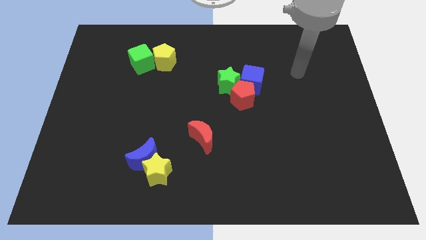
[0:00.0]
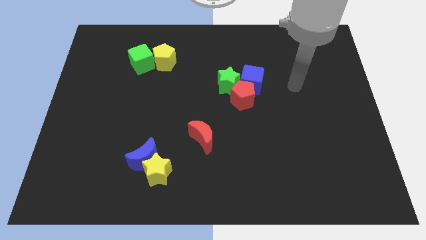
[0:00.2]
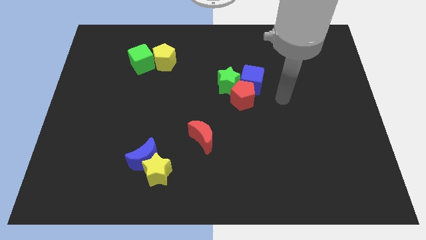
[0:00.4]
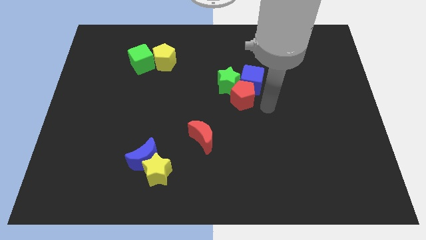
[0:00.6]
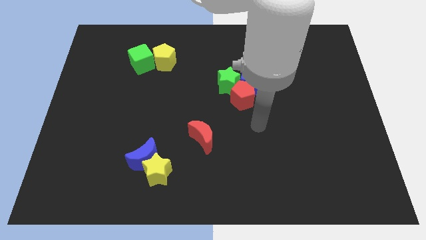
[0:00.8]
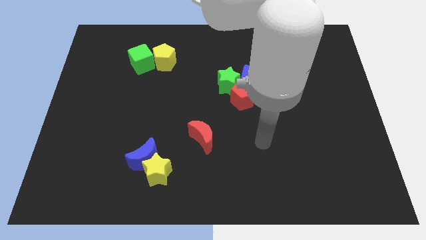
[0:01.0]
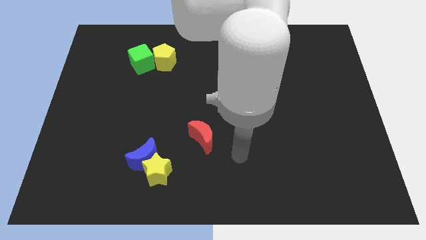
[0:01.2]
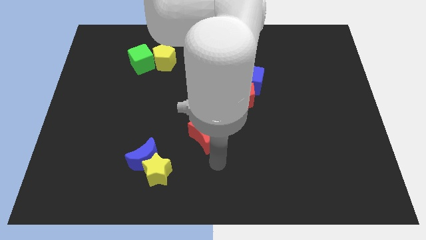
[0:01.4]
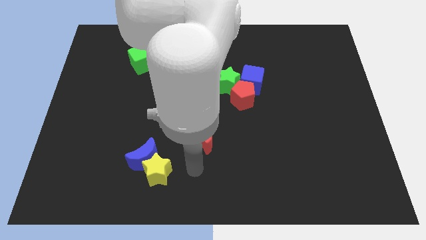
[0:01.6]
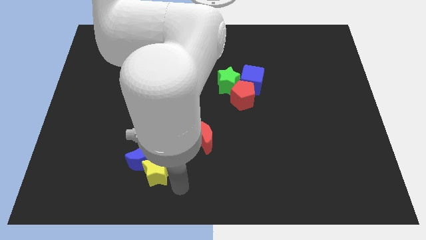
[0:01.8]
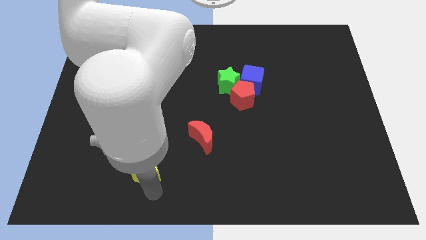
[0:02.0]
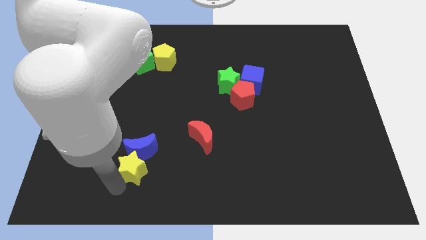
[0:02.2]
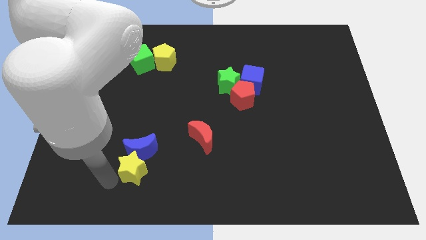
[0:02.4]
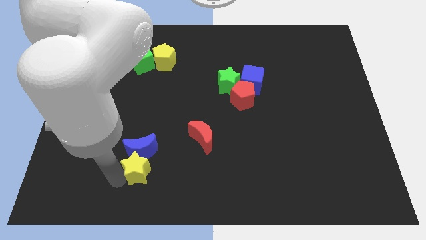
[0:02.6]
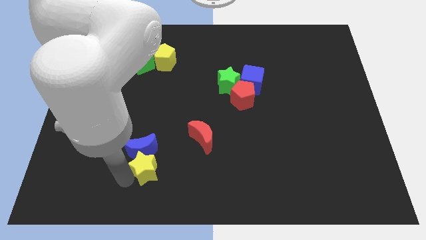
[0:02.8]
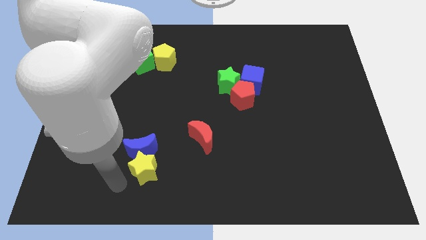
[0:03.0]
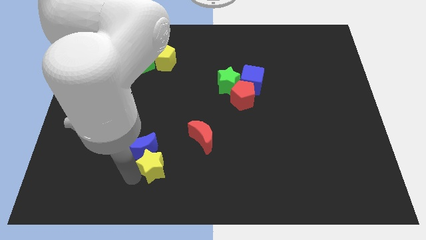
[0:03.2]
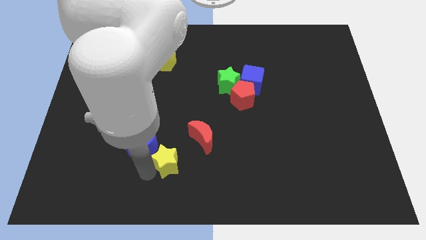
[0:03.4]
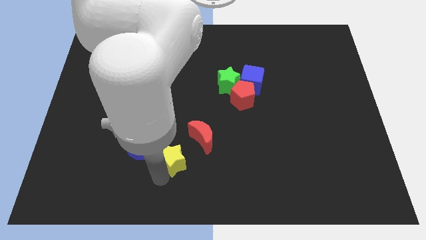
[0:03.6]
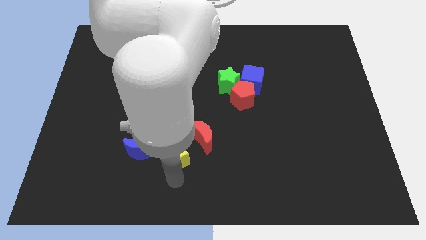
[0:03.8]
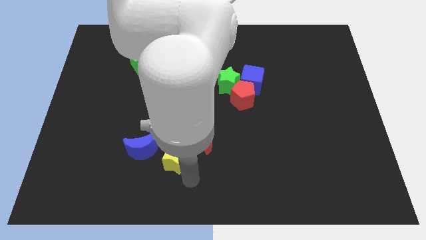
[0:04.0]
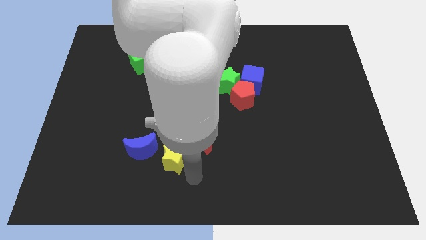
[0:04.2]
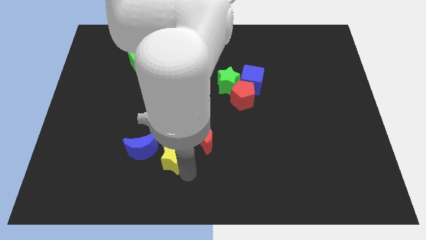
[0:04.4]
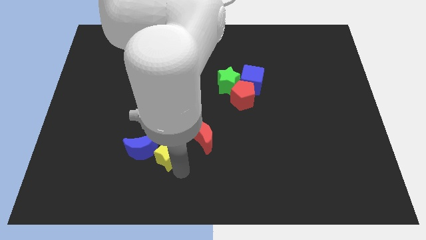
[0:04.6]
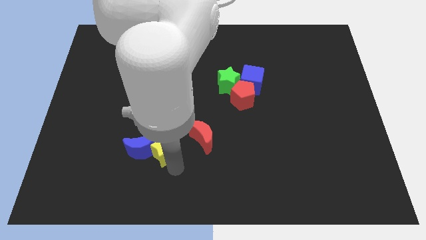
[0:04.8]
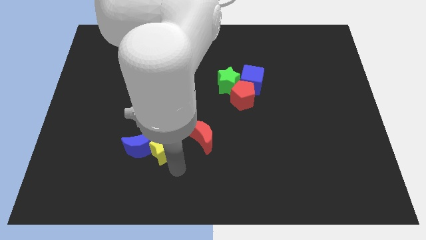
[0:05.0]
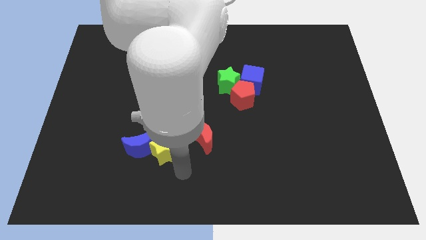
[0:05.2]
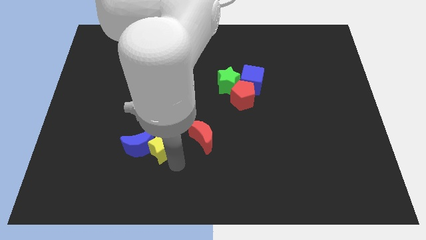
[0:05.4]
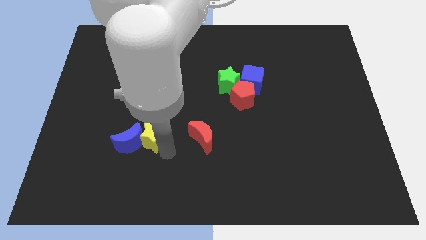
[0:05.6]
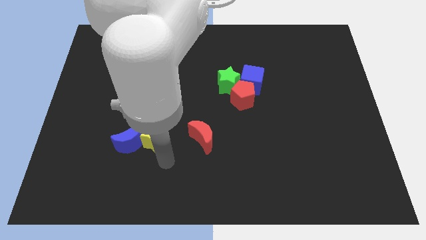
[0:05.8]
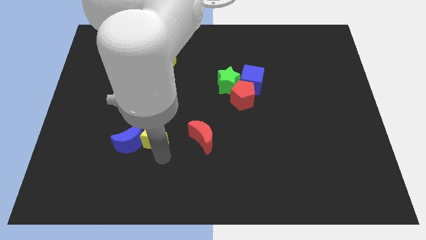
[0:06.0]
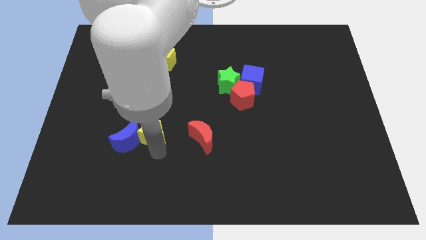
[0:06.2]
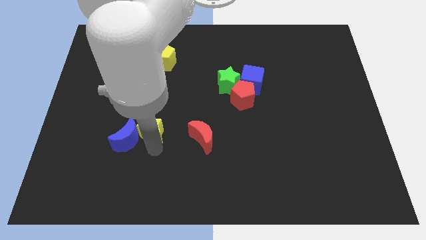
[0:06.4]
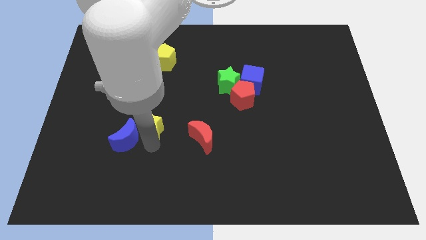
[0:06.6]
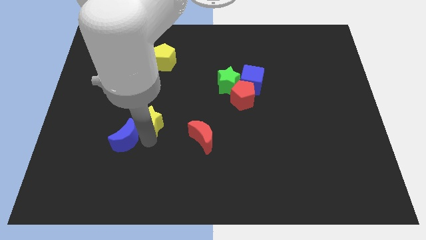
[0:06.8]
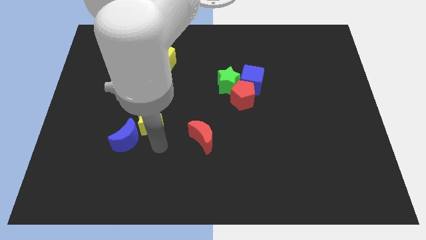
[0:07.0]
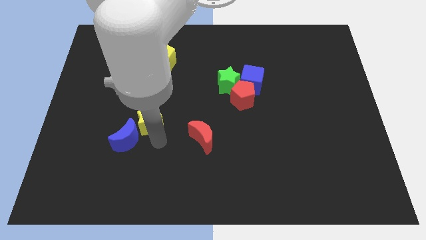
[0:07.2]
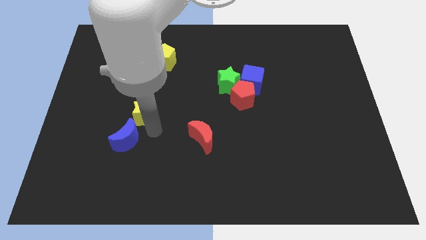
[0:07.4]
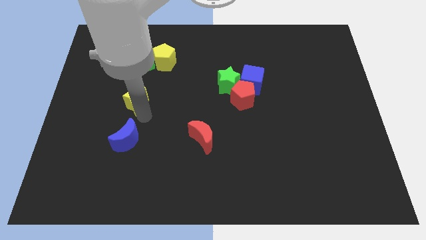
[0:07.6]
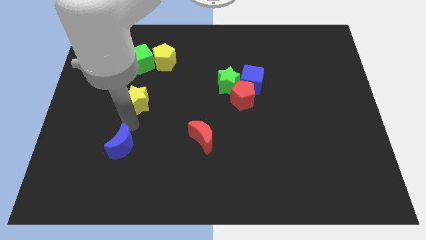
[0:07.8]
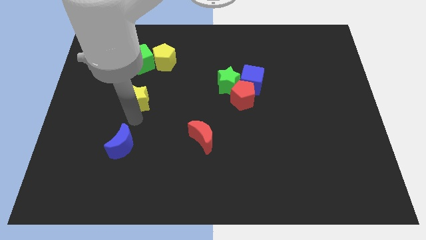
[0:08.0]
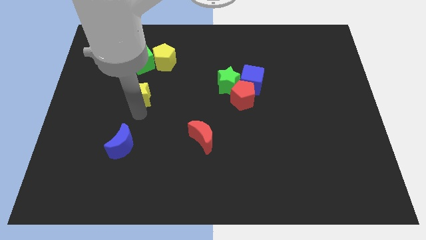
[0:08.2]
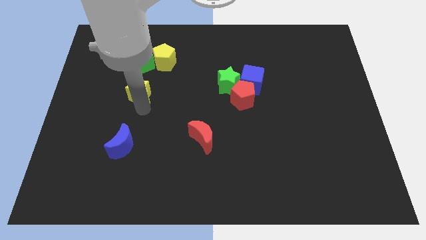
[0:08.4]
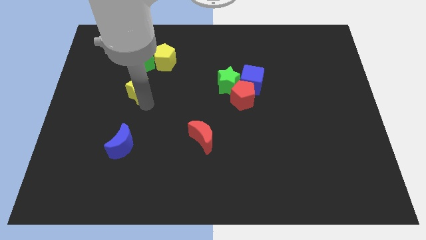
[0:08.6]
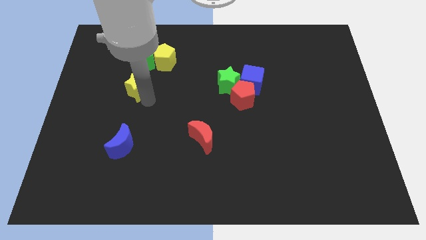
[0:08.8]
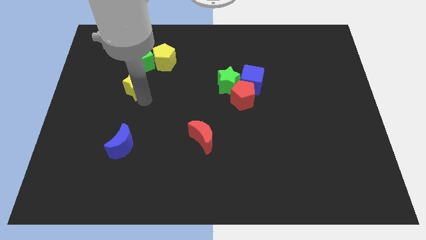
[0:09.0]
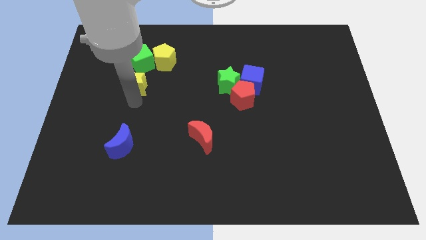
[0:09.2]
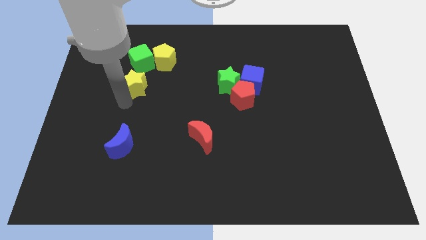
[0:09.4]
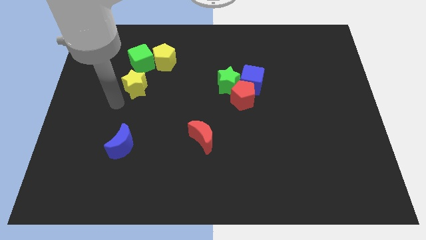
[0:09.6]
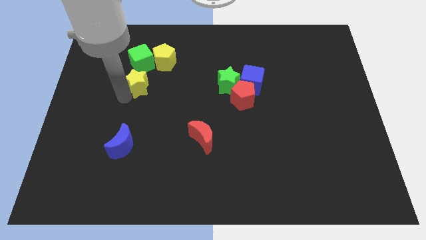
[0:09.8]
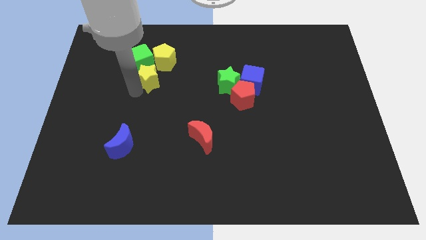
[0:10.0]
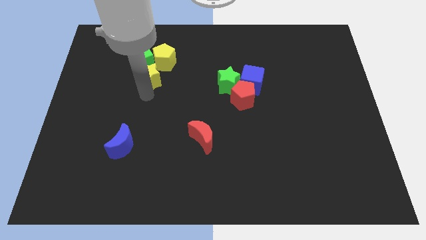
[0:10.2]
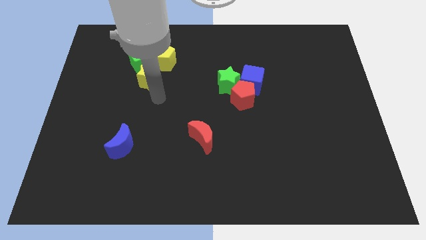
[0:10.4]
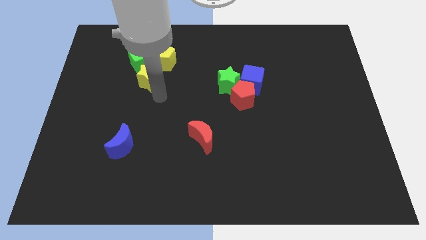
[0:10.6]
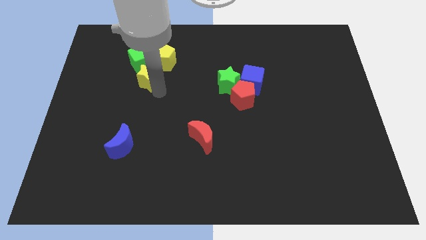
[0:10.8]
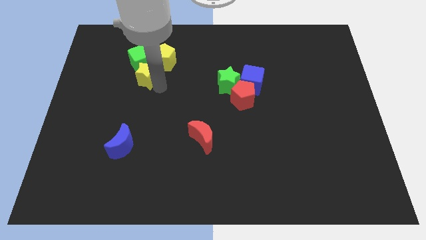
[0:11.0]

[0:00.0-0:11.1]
push the yellow star towards the green cube

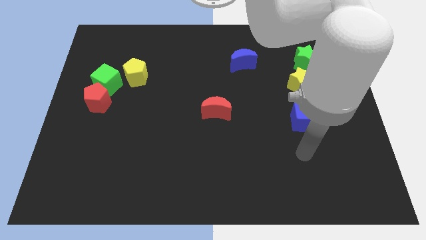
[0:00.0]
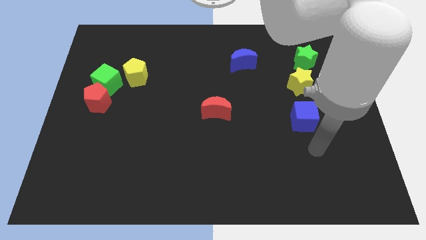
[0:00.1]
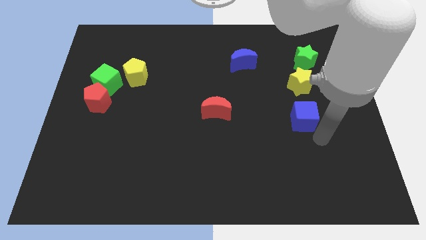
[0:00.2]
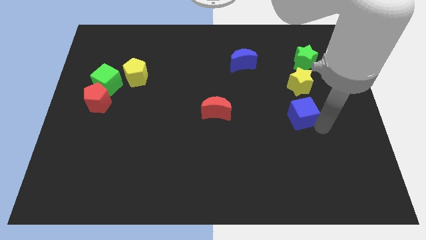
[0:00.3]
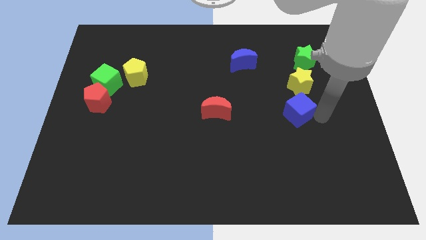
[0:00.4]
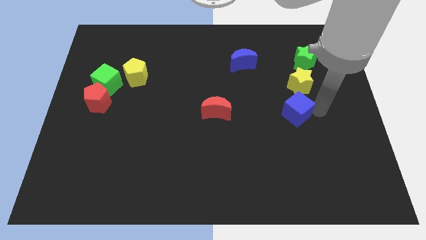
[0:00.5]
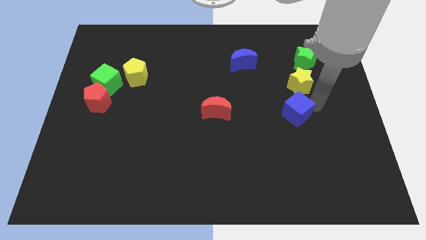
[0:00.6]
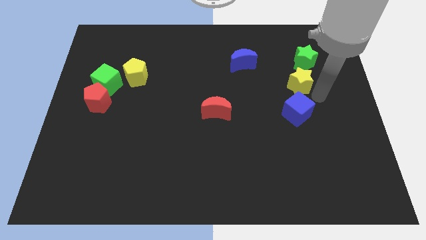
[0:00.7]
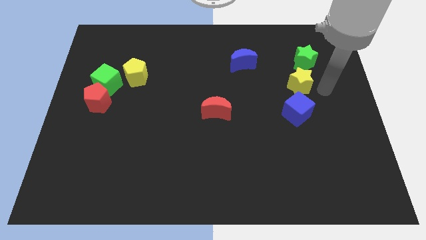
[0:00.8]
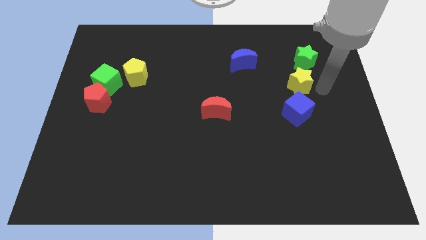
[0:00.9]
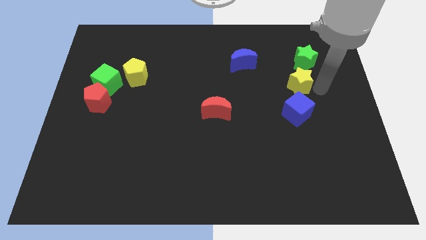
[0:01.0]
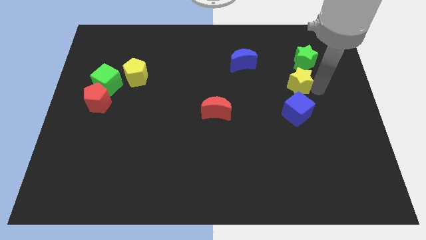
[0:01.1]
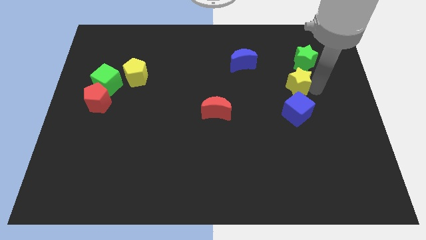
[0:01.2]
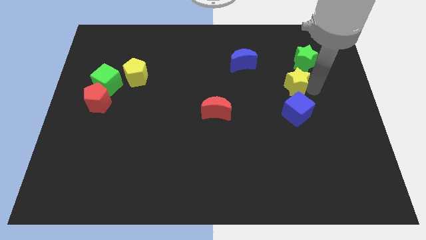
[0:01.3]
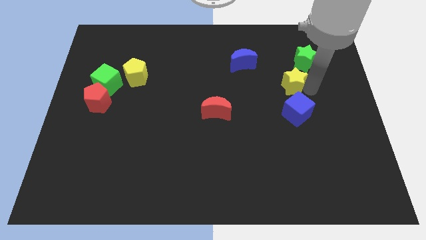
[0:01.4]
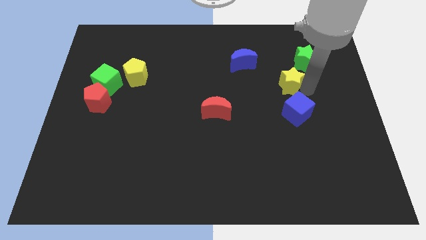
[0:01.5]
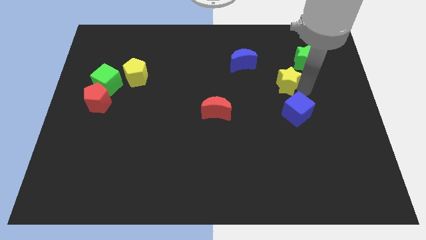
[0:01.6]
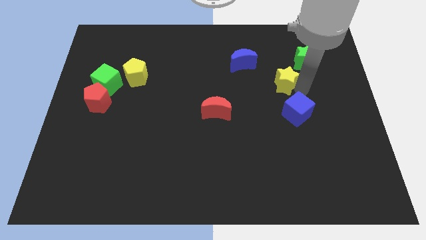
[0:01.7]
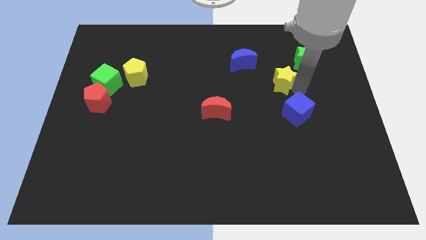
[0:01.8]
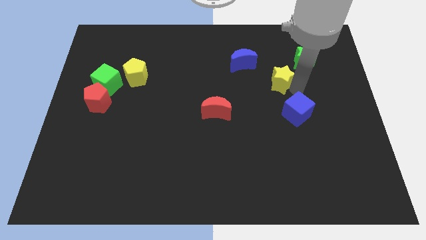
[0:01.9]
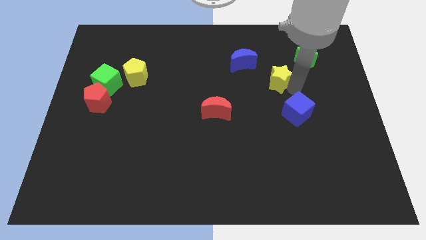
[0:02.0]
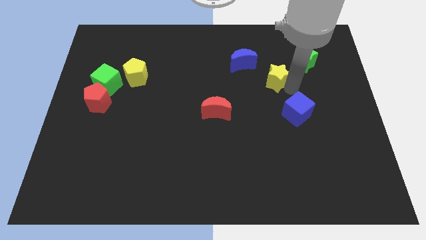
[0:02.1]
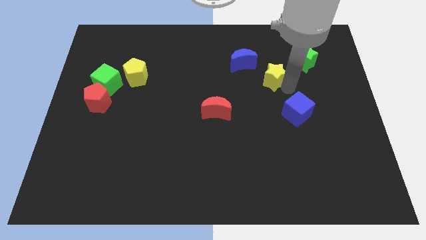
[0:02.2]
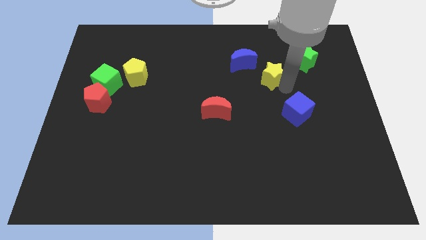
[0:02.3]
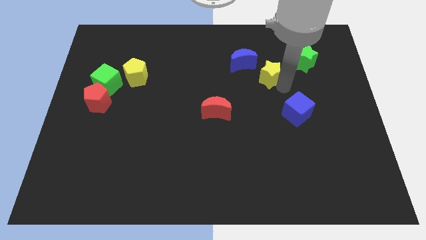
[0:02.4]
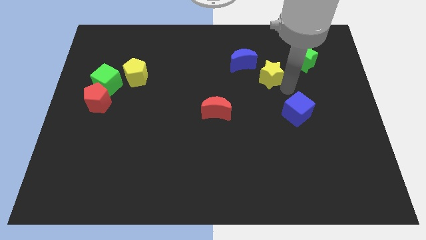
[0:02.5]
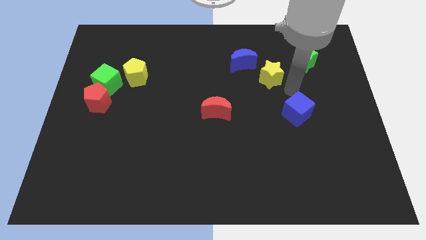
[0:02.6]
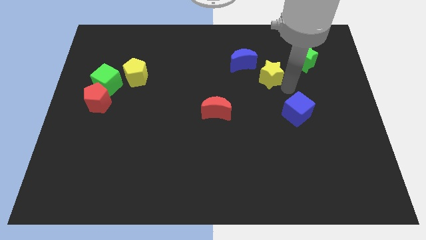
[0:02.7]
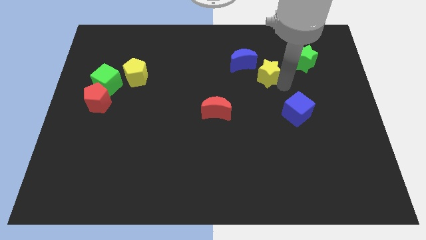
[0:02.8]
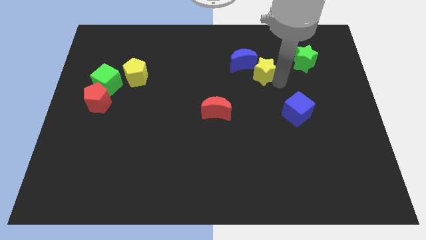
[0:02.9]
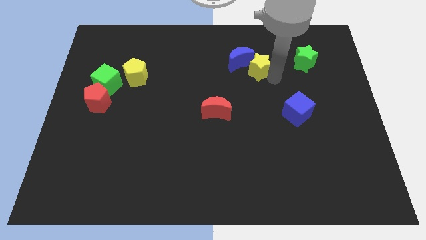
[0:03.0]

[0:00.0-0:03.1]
put the yellow star to the blue moon
